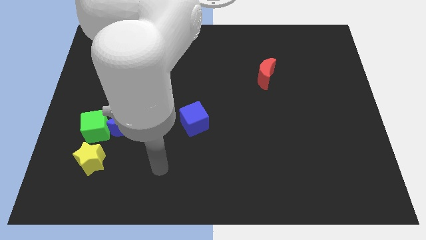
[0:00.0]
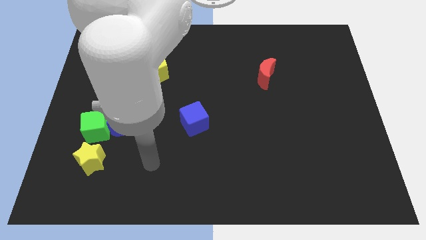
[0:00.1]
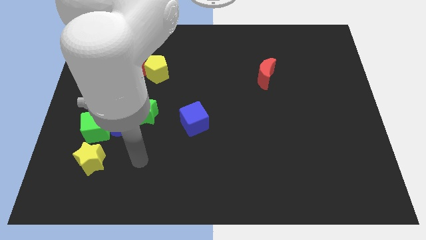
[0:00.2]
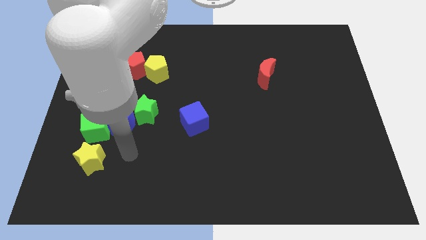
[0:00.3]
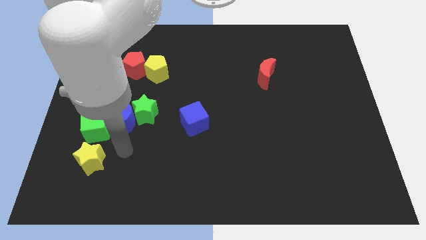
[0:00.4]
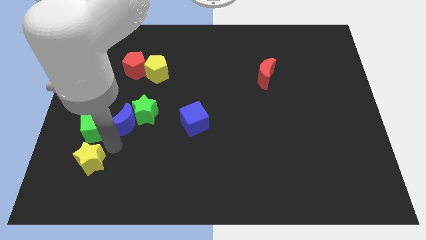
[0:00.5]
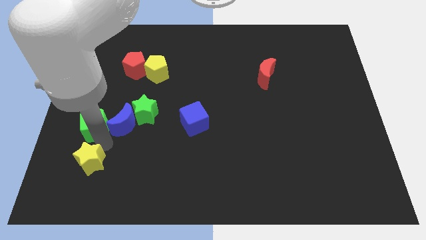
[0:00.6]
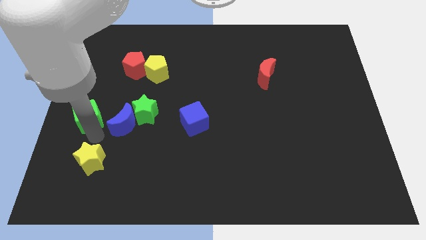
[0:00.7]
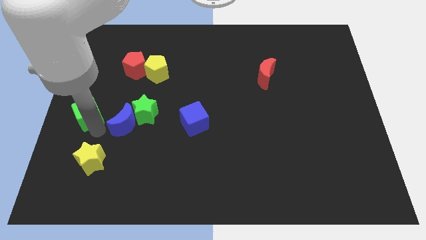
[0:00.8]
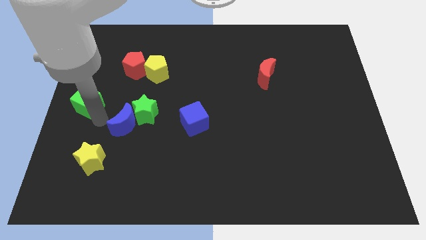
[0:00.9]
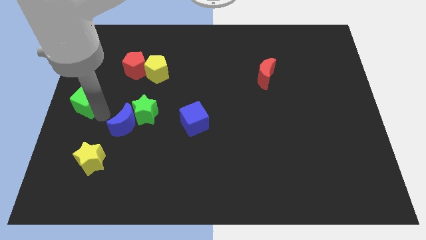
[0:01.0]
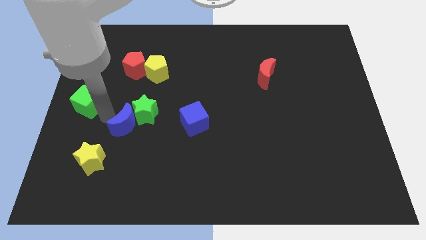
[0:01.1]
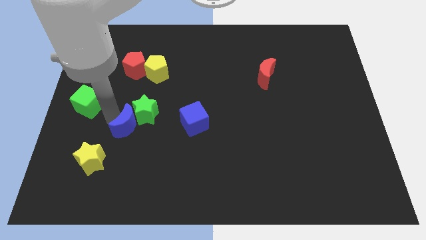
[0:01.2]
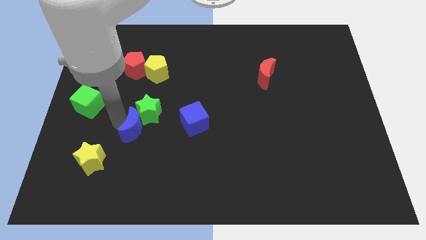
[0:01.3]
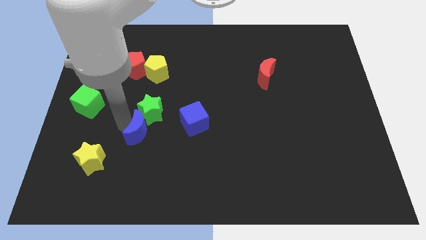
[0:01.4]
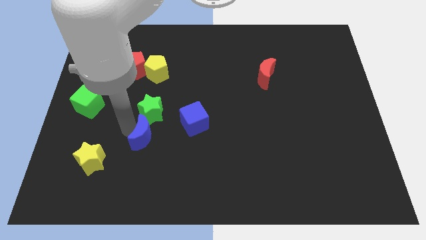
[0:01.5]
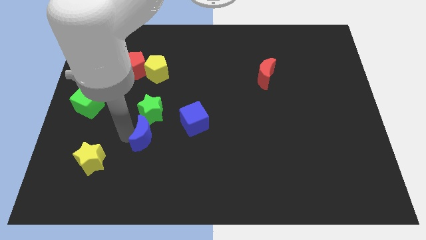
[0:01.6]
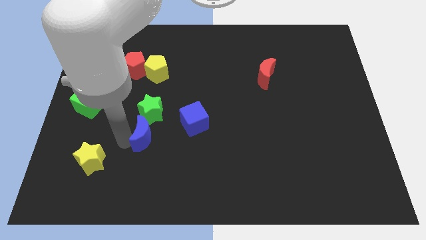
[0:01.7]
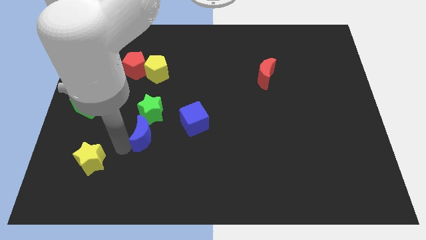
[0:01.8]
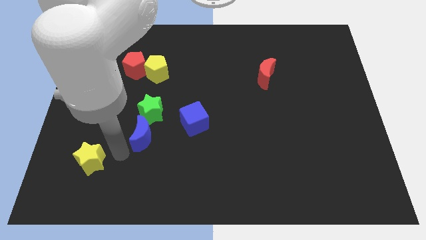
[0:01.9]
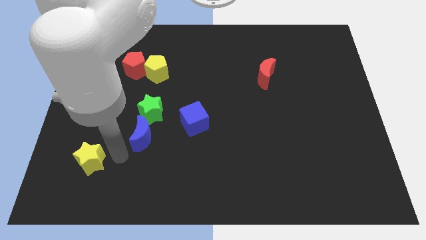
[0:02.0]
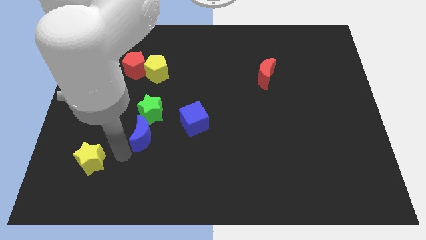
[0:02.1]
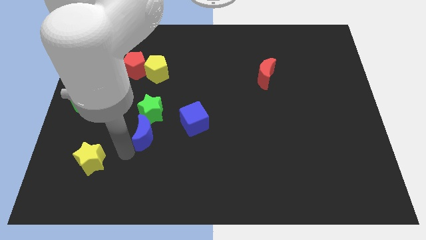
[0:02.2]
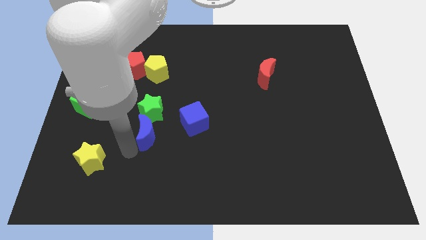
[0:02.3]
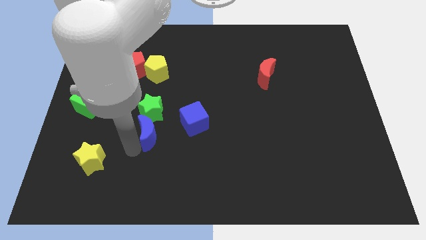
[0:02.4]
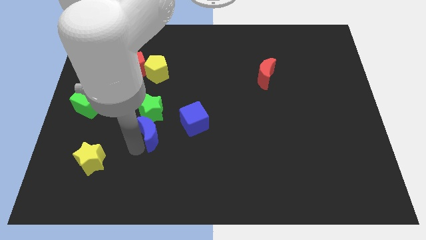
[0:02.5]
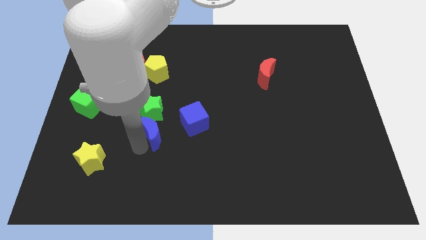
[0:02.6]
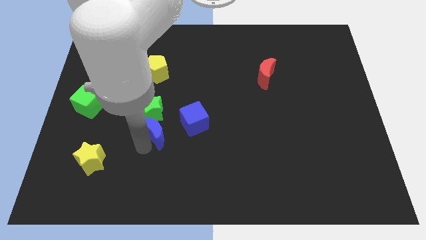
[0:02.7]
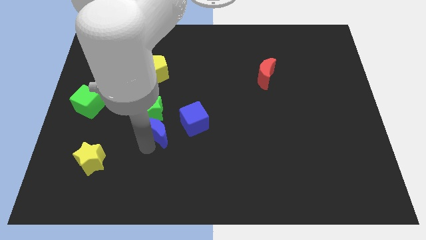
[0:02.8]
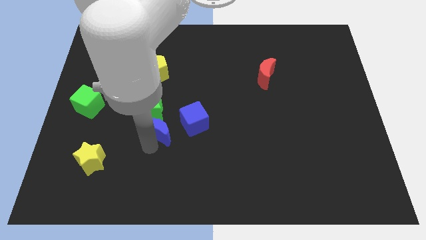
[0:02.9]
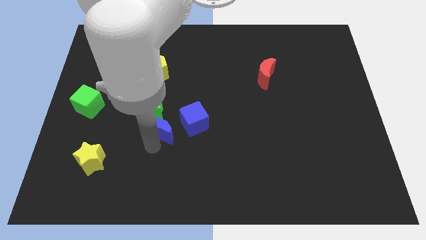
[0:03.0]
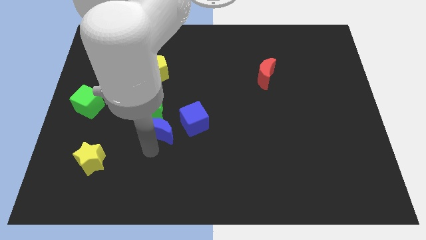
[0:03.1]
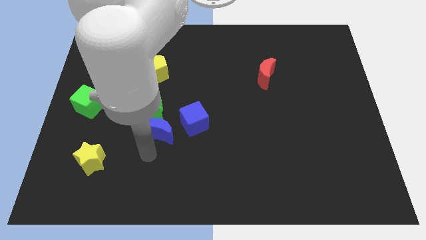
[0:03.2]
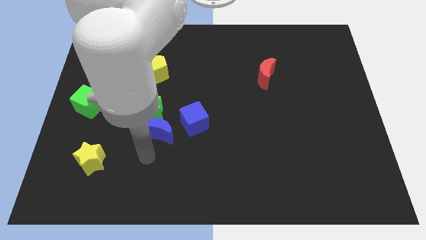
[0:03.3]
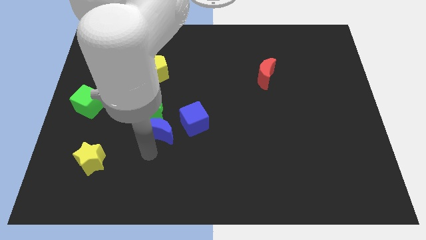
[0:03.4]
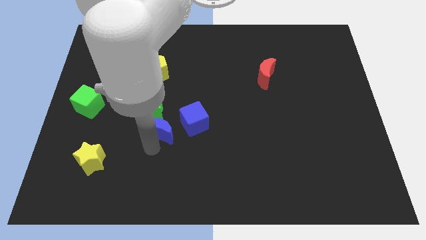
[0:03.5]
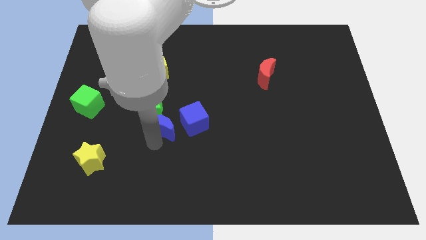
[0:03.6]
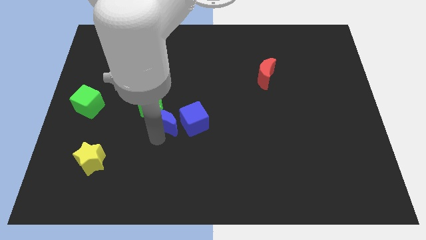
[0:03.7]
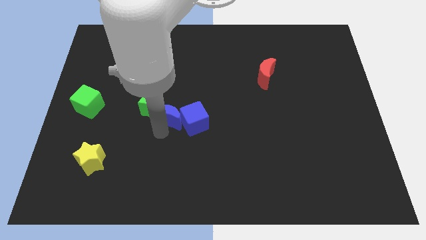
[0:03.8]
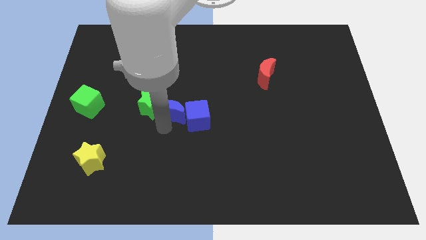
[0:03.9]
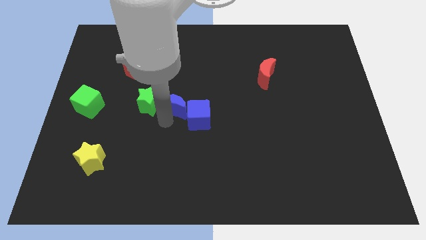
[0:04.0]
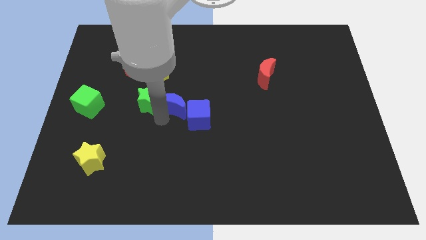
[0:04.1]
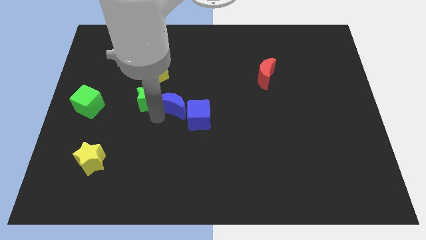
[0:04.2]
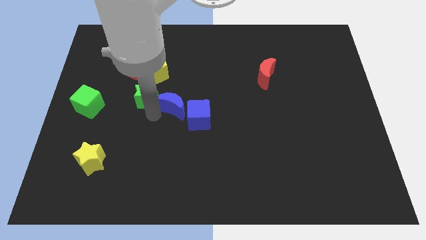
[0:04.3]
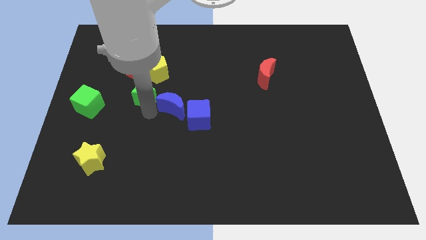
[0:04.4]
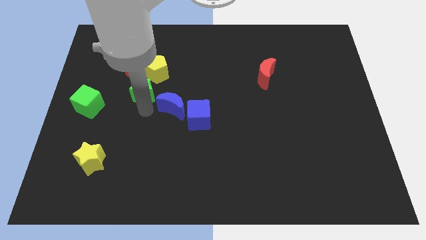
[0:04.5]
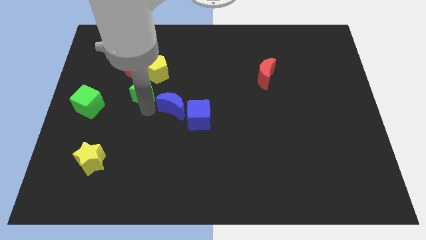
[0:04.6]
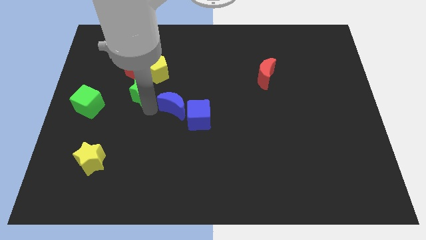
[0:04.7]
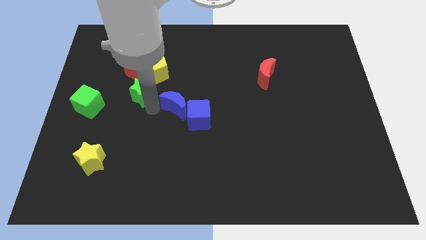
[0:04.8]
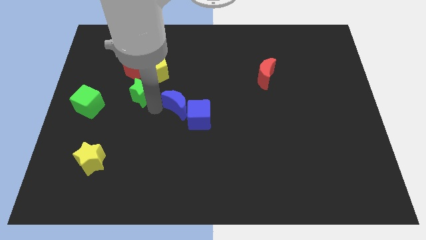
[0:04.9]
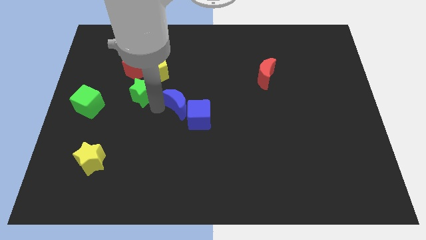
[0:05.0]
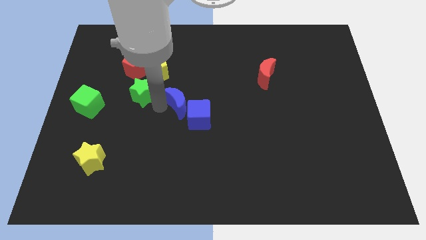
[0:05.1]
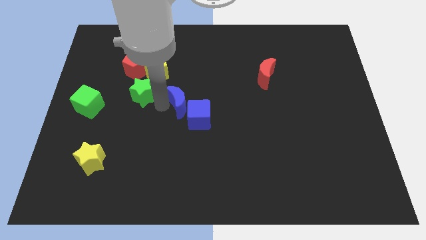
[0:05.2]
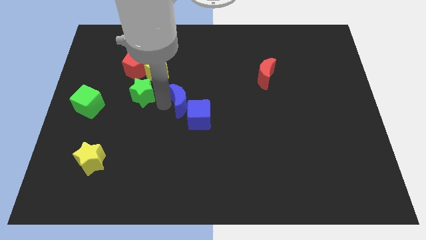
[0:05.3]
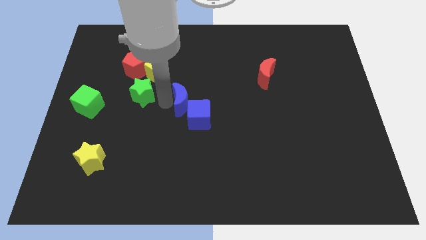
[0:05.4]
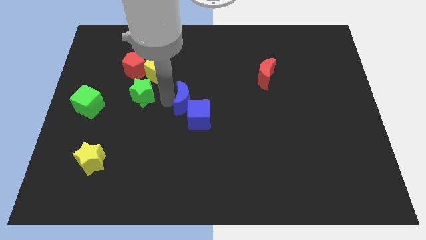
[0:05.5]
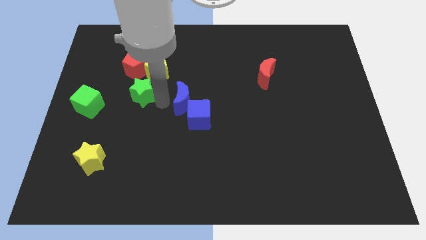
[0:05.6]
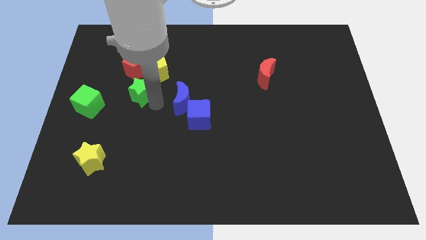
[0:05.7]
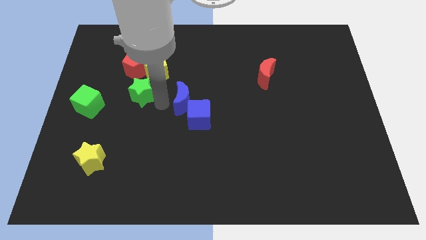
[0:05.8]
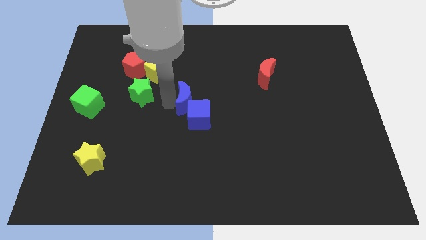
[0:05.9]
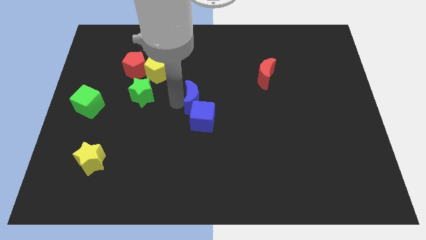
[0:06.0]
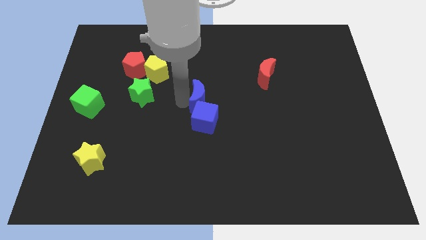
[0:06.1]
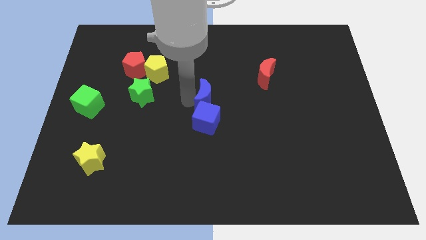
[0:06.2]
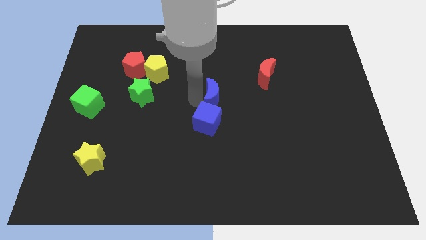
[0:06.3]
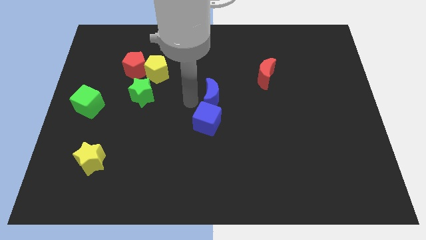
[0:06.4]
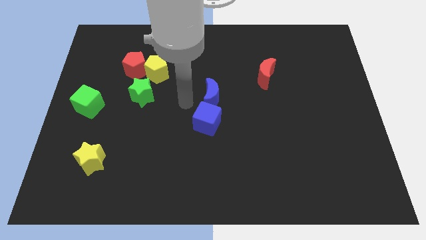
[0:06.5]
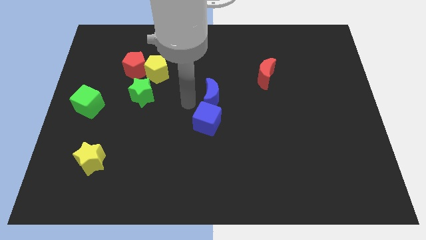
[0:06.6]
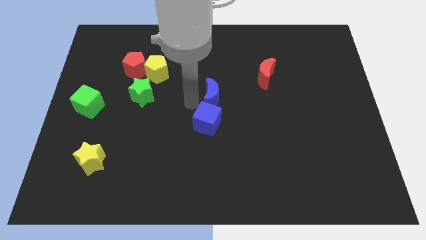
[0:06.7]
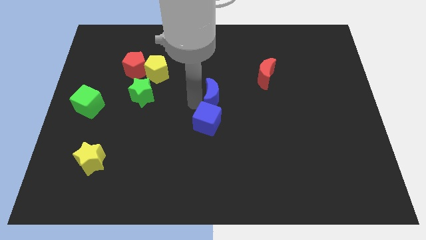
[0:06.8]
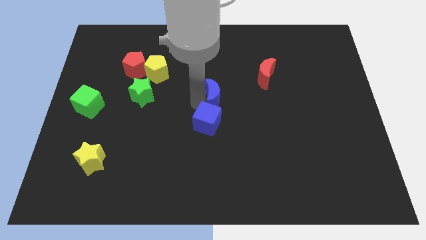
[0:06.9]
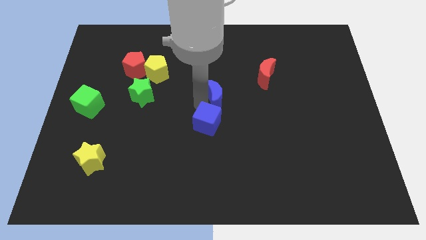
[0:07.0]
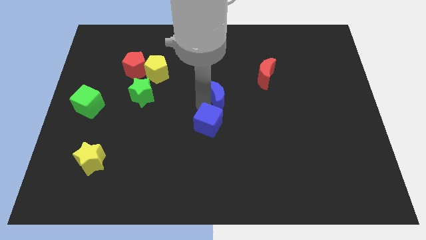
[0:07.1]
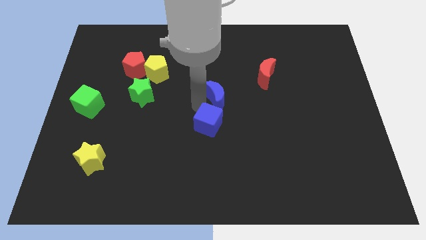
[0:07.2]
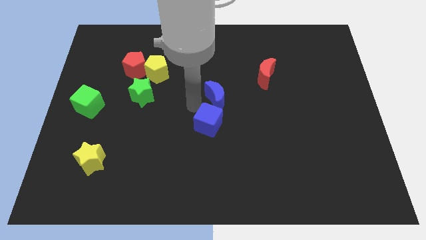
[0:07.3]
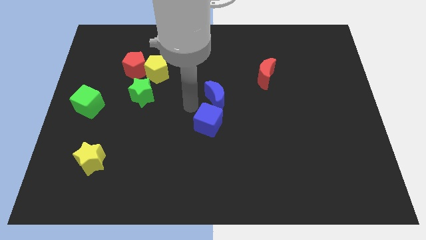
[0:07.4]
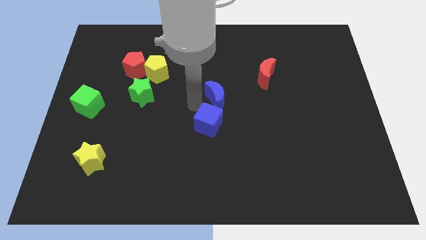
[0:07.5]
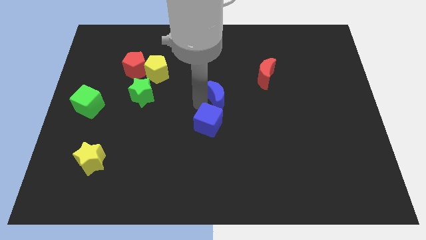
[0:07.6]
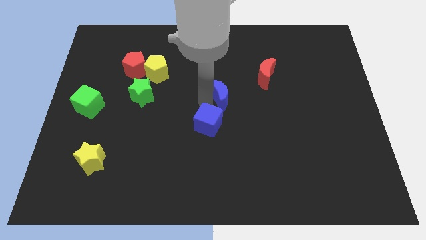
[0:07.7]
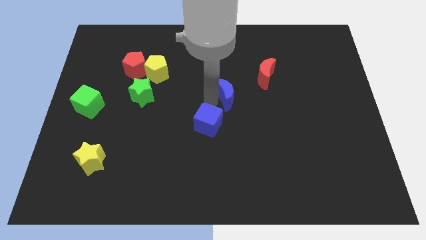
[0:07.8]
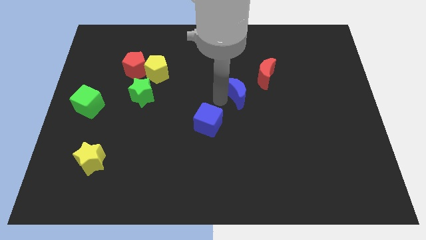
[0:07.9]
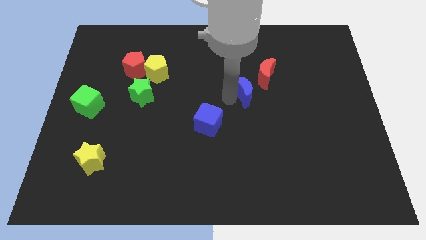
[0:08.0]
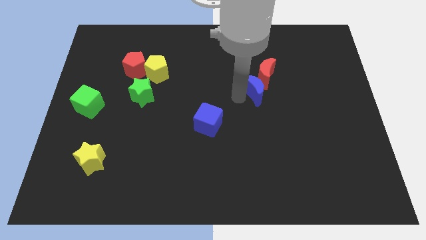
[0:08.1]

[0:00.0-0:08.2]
put the blue moon close to the red moon
